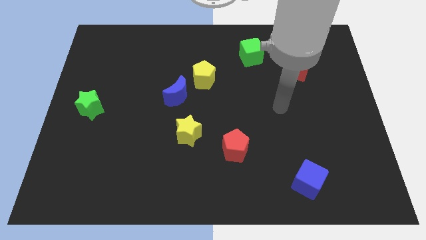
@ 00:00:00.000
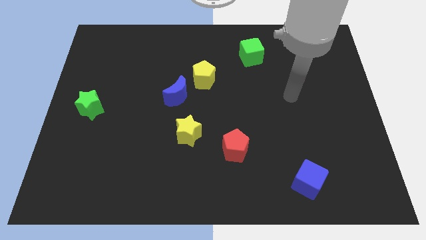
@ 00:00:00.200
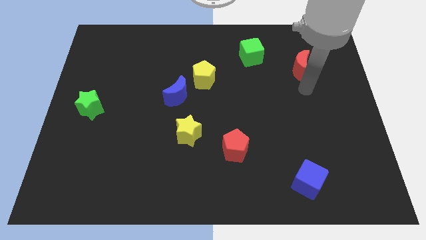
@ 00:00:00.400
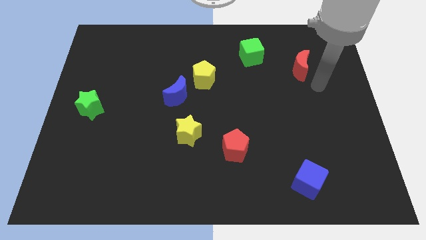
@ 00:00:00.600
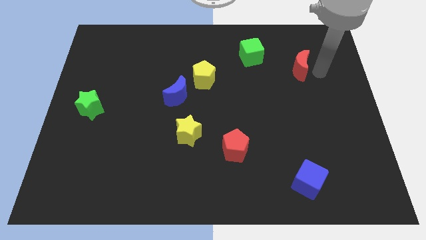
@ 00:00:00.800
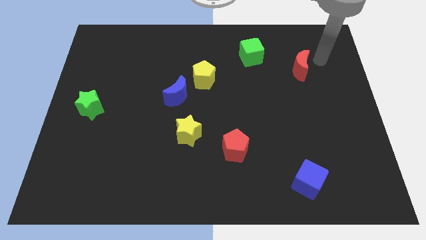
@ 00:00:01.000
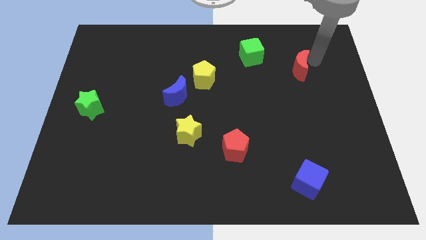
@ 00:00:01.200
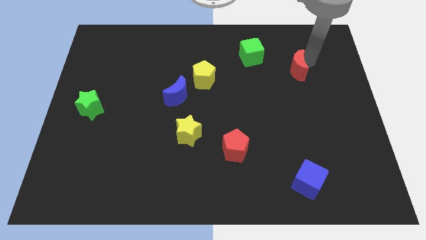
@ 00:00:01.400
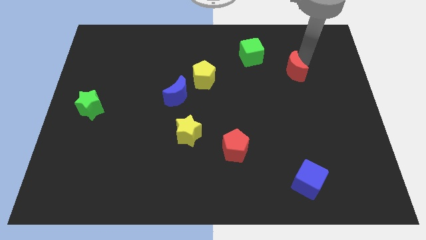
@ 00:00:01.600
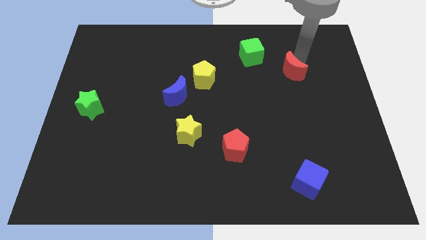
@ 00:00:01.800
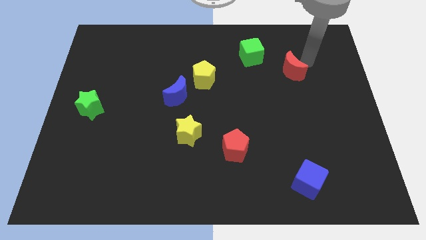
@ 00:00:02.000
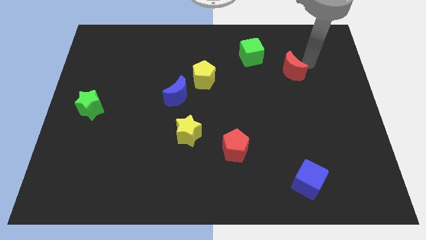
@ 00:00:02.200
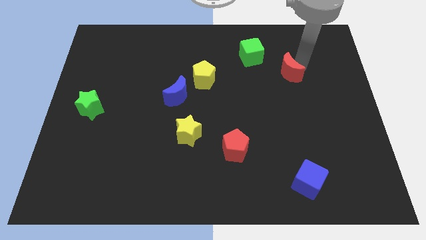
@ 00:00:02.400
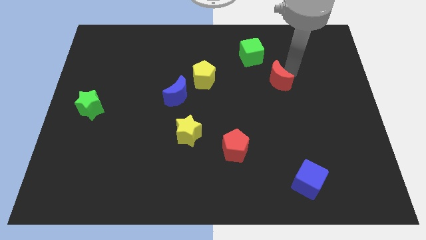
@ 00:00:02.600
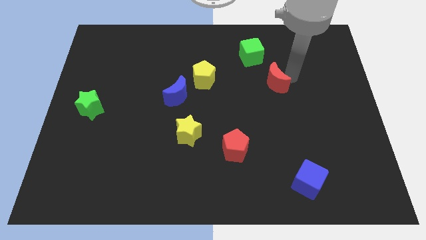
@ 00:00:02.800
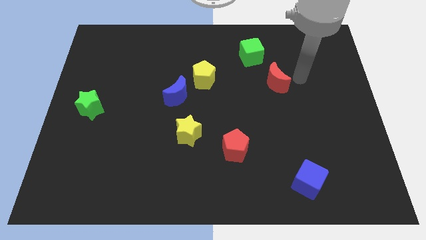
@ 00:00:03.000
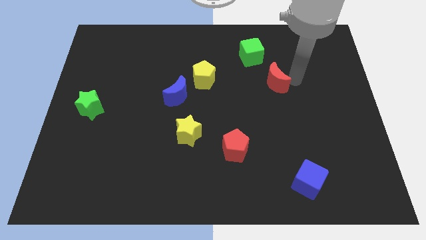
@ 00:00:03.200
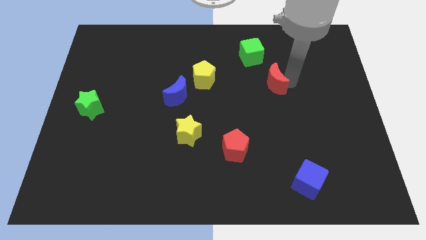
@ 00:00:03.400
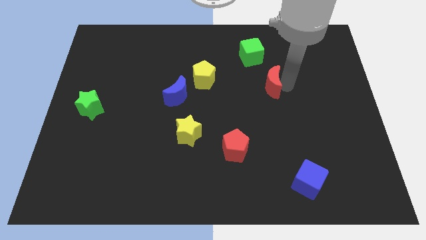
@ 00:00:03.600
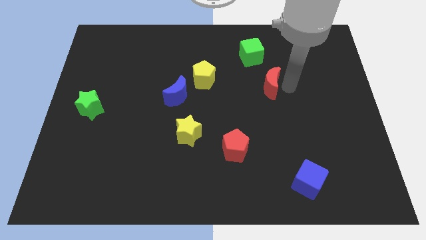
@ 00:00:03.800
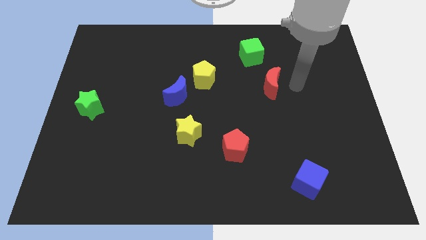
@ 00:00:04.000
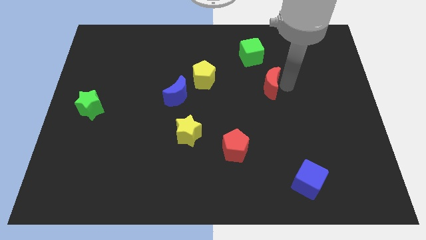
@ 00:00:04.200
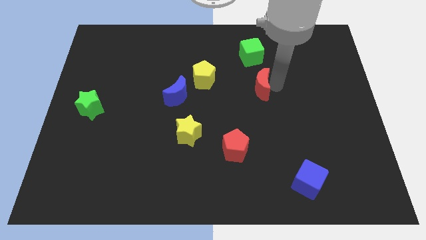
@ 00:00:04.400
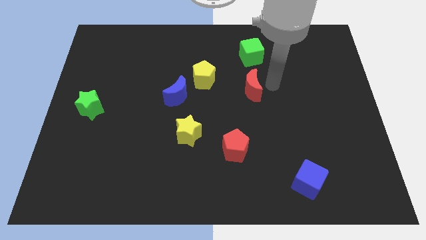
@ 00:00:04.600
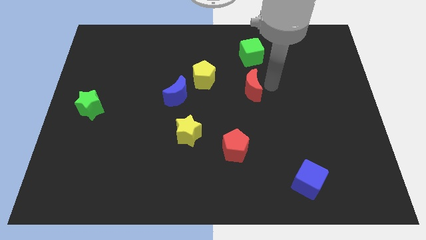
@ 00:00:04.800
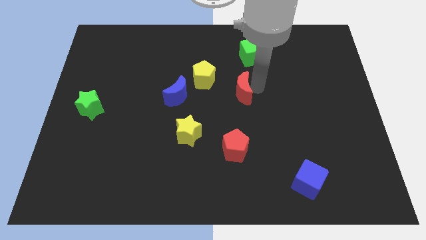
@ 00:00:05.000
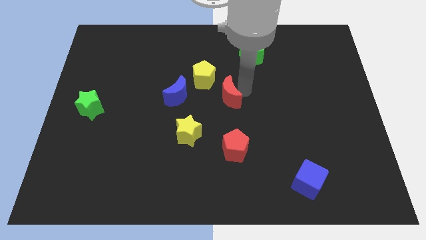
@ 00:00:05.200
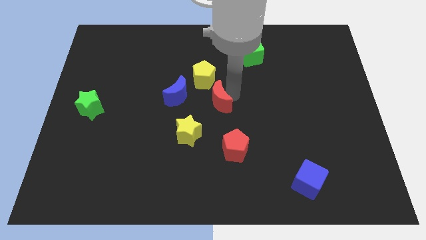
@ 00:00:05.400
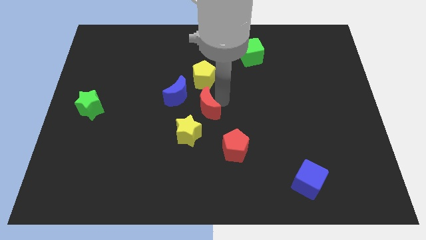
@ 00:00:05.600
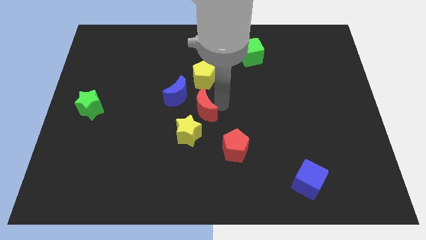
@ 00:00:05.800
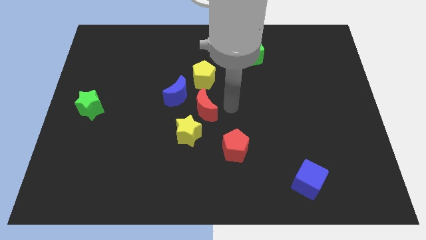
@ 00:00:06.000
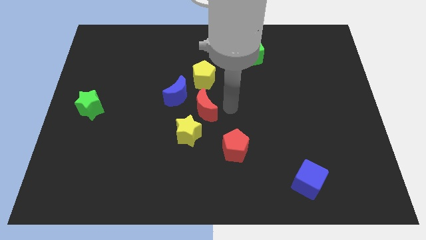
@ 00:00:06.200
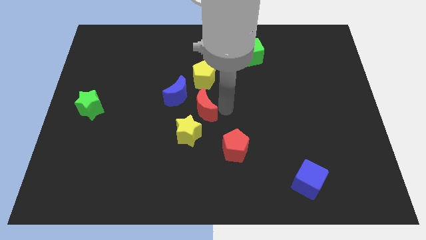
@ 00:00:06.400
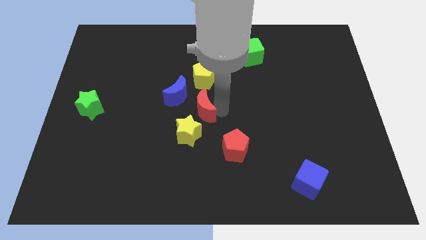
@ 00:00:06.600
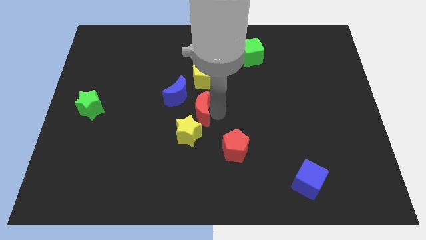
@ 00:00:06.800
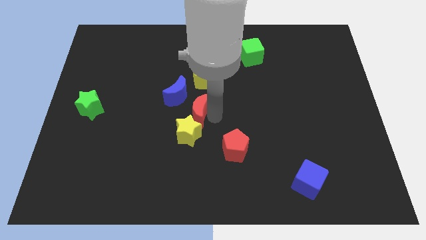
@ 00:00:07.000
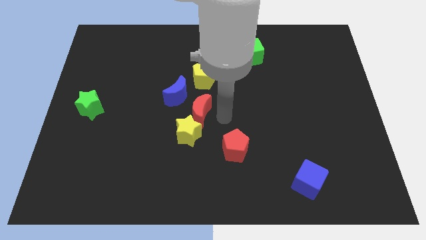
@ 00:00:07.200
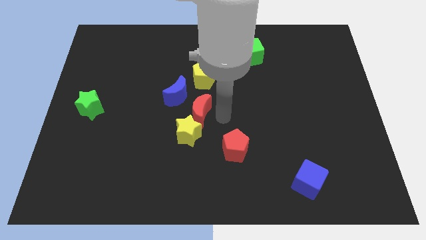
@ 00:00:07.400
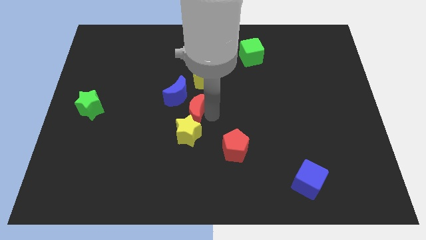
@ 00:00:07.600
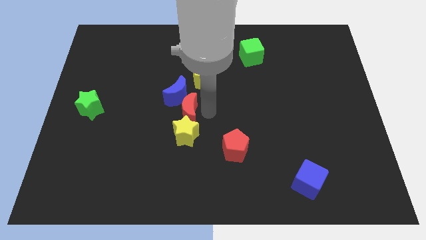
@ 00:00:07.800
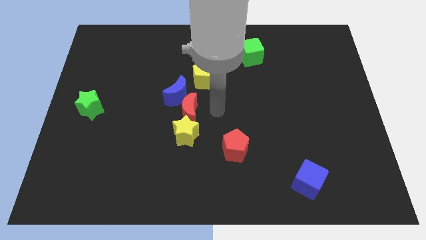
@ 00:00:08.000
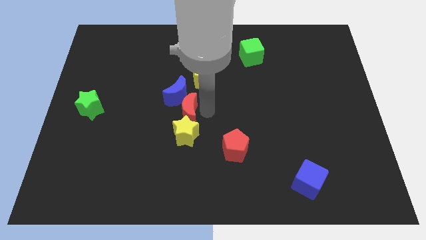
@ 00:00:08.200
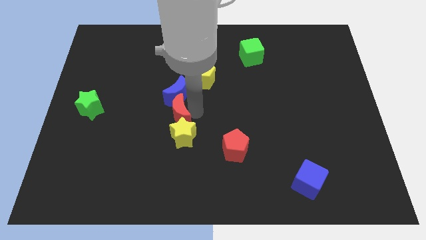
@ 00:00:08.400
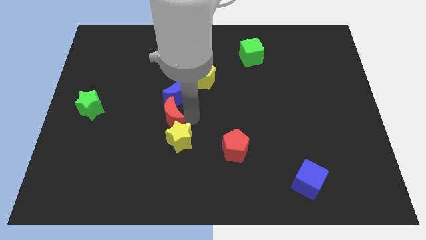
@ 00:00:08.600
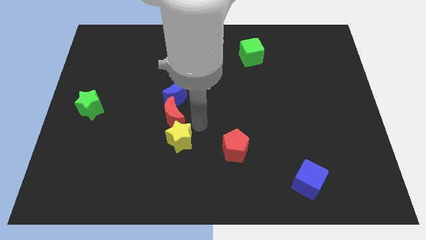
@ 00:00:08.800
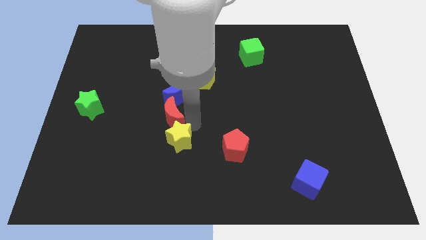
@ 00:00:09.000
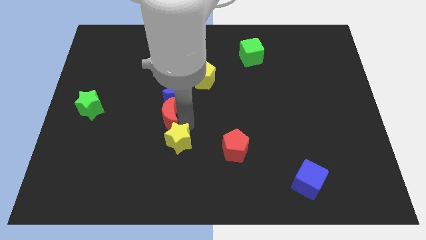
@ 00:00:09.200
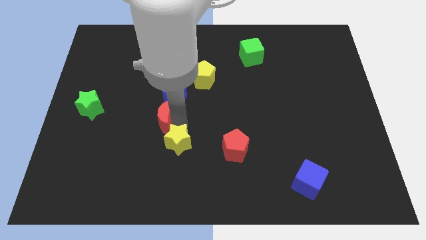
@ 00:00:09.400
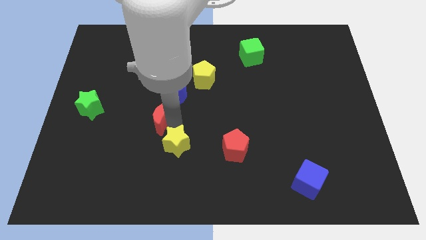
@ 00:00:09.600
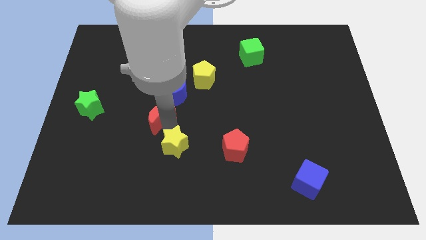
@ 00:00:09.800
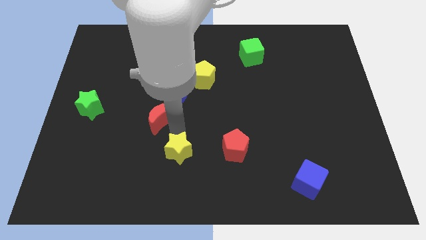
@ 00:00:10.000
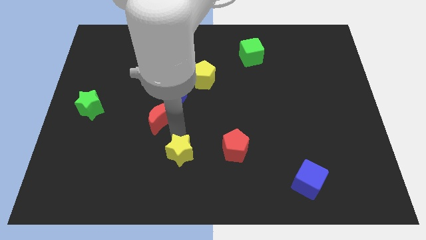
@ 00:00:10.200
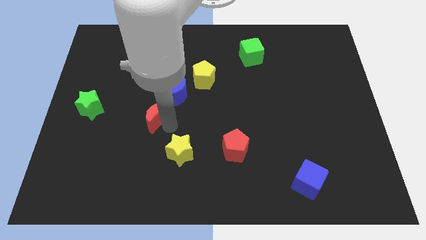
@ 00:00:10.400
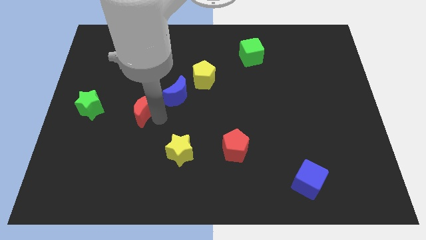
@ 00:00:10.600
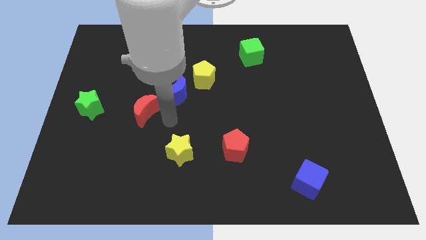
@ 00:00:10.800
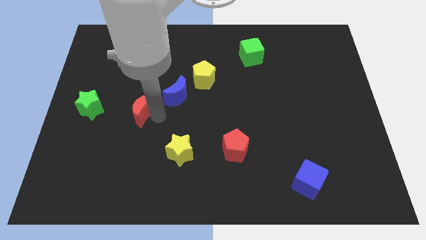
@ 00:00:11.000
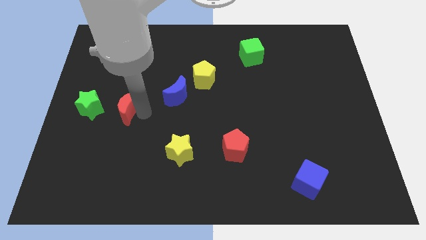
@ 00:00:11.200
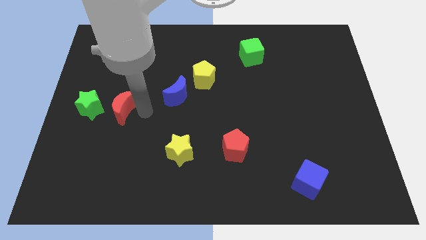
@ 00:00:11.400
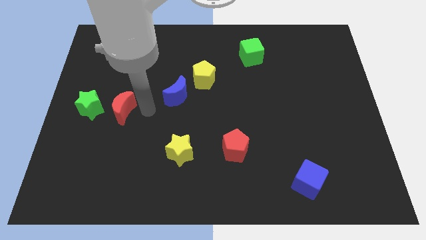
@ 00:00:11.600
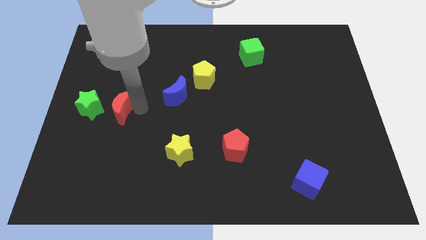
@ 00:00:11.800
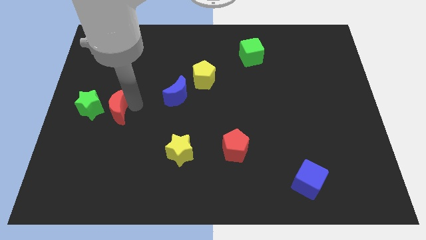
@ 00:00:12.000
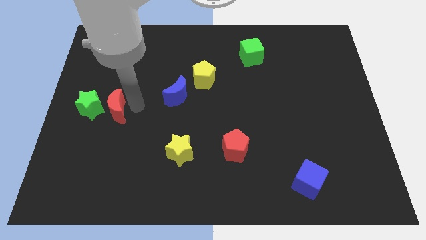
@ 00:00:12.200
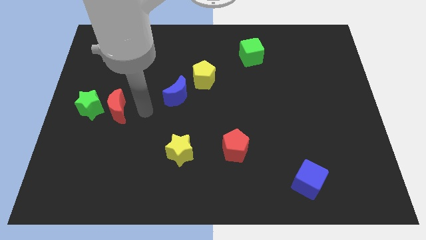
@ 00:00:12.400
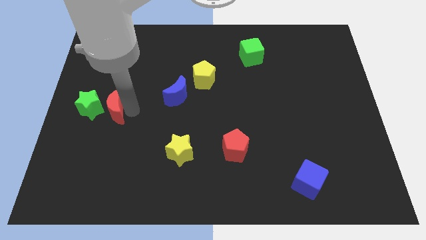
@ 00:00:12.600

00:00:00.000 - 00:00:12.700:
move the red moon towards the green star

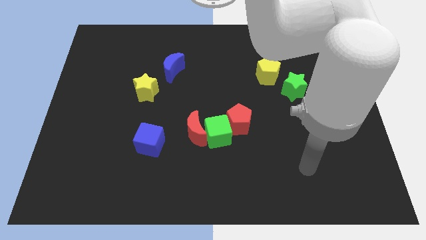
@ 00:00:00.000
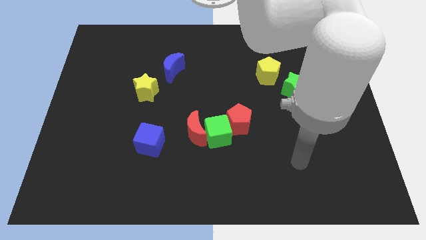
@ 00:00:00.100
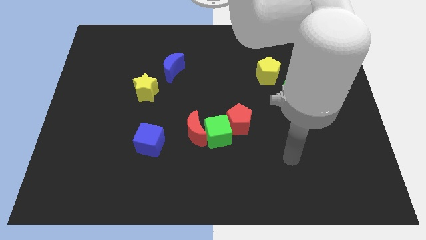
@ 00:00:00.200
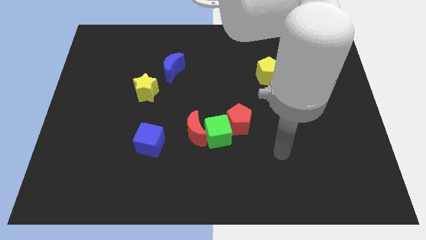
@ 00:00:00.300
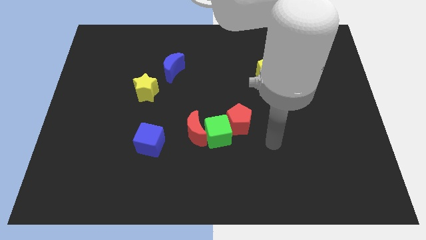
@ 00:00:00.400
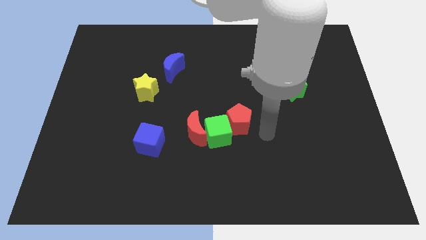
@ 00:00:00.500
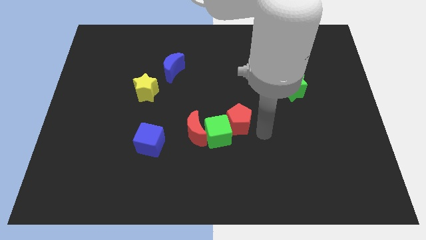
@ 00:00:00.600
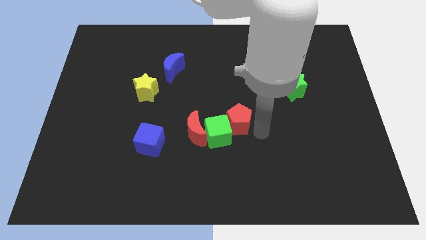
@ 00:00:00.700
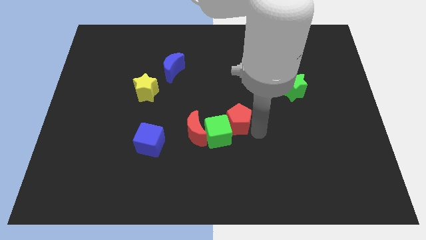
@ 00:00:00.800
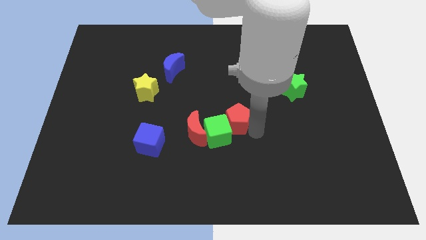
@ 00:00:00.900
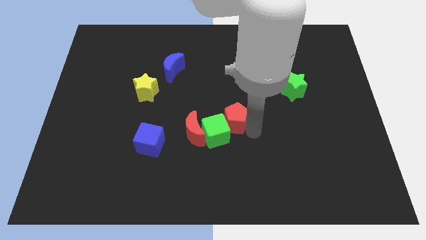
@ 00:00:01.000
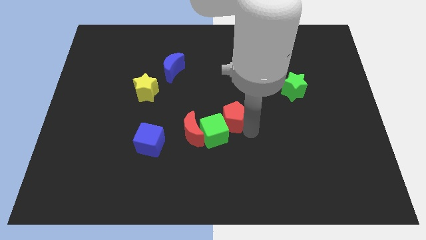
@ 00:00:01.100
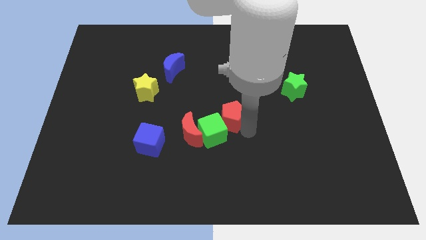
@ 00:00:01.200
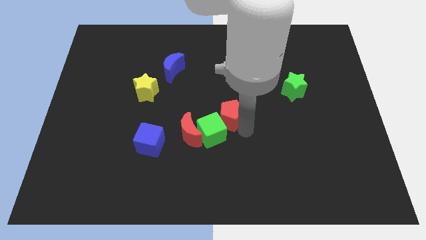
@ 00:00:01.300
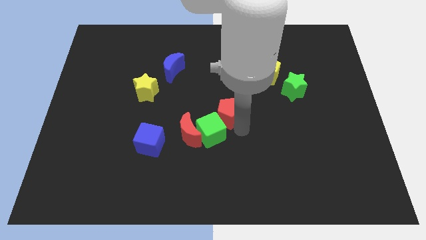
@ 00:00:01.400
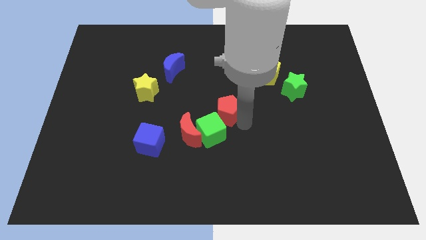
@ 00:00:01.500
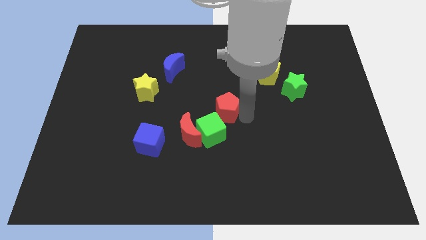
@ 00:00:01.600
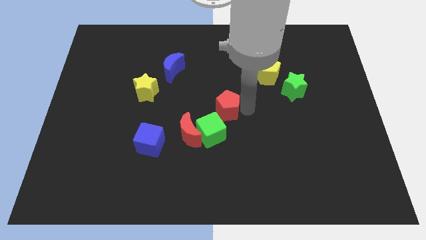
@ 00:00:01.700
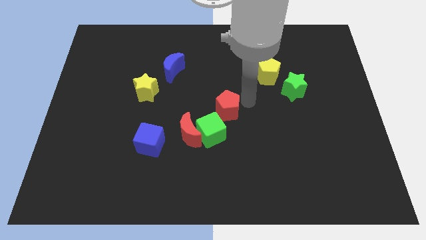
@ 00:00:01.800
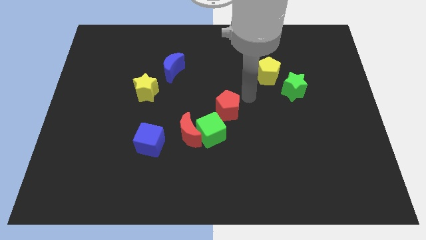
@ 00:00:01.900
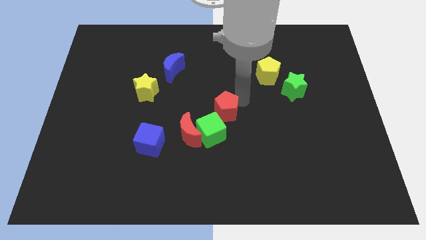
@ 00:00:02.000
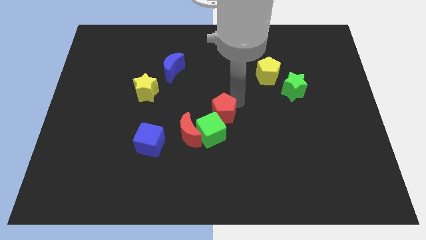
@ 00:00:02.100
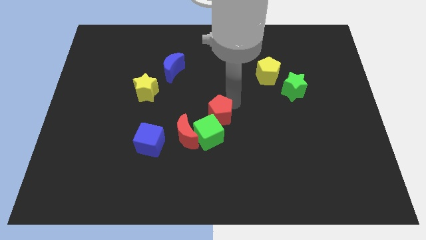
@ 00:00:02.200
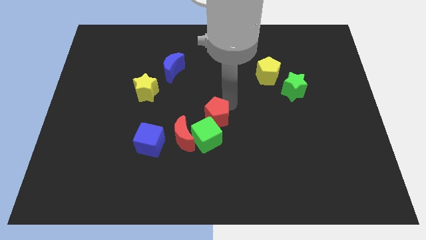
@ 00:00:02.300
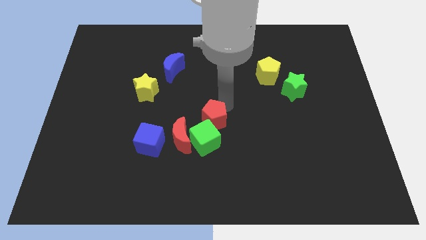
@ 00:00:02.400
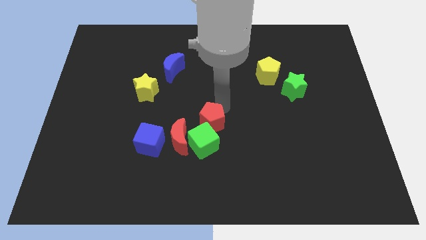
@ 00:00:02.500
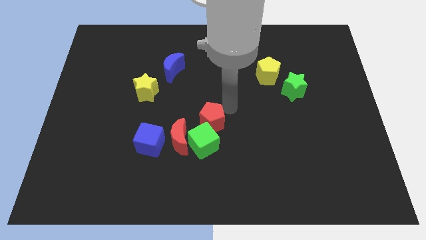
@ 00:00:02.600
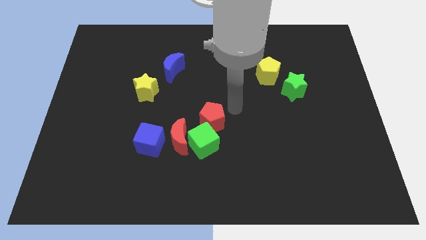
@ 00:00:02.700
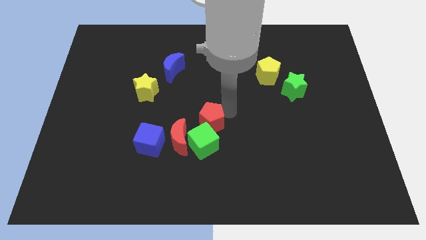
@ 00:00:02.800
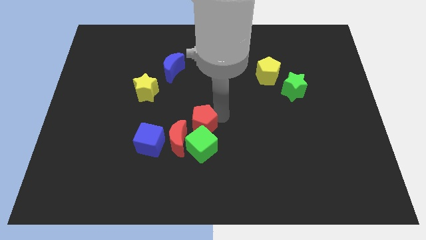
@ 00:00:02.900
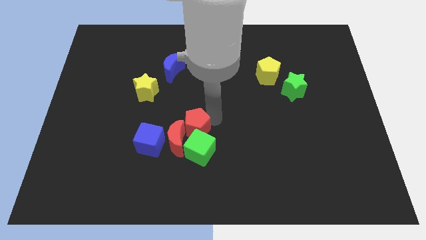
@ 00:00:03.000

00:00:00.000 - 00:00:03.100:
push the red pentagon next to the red moon
